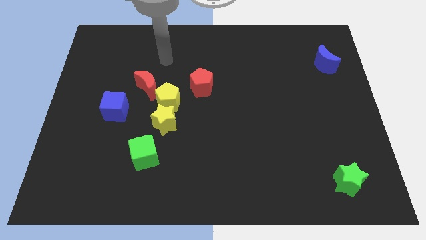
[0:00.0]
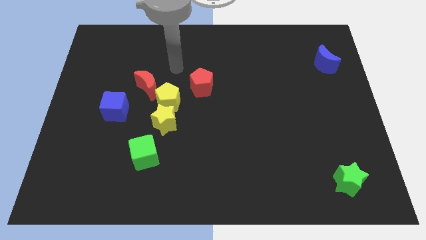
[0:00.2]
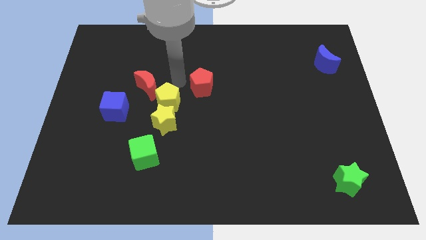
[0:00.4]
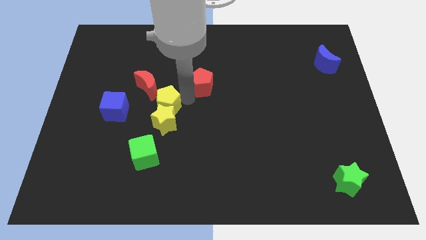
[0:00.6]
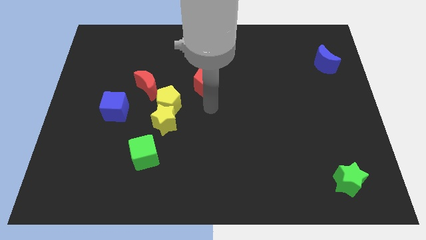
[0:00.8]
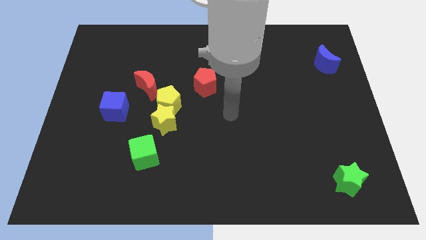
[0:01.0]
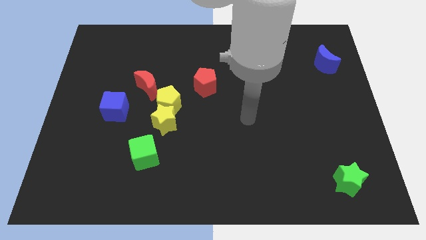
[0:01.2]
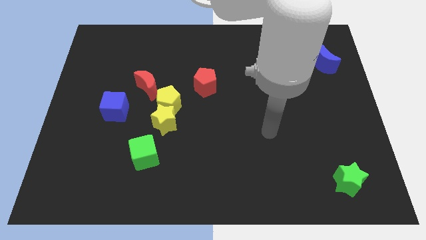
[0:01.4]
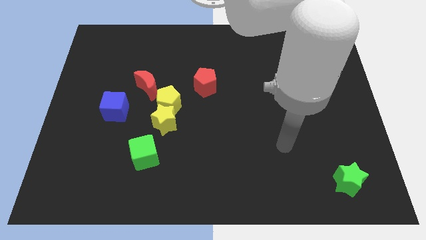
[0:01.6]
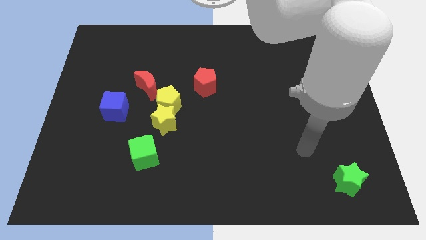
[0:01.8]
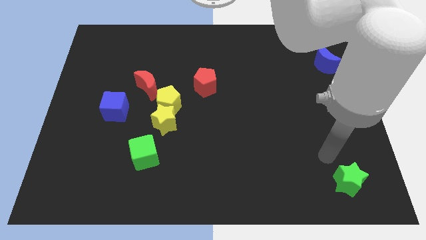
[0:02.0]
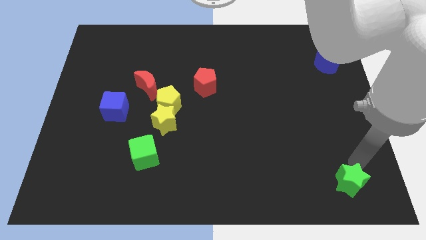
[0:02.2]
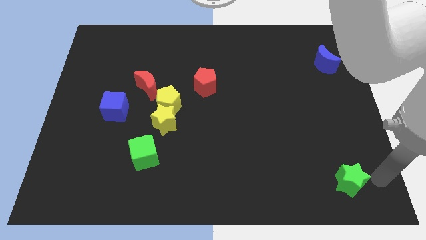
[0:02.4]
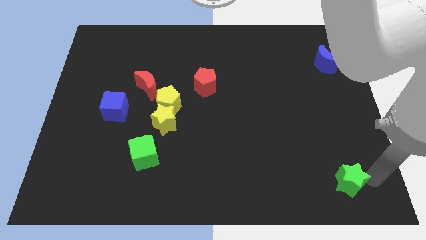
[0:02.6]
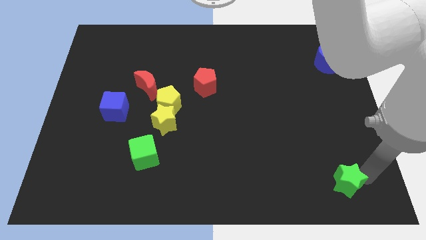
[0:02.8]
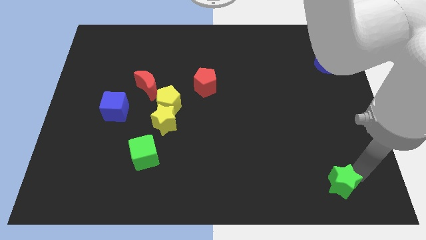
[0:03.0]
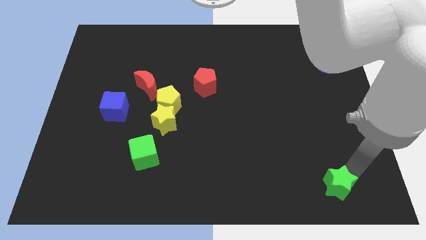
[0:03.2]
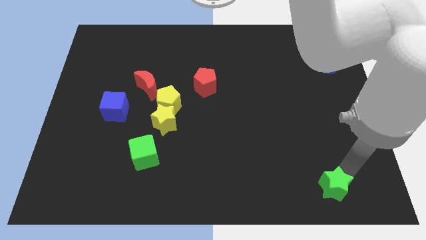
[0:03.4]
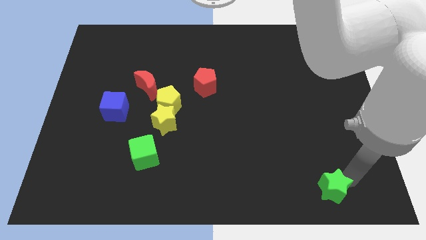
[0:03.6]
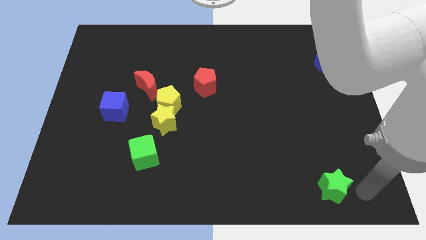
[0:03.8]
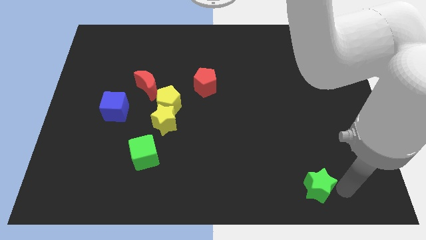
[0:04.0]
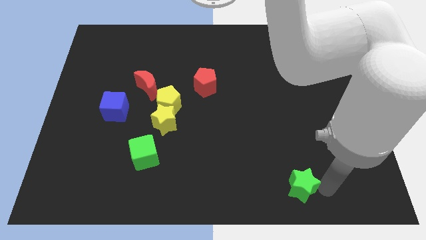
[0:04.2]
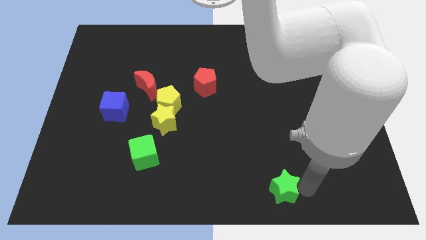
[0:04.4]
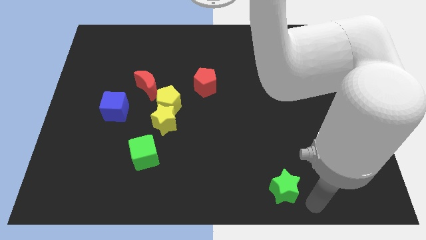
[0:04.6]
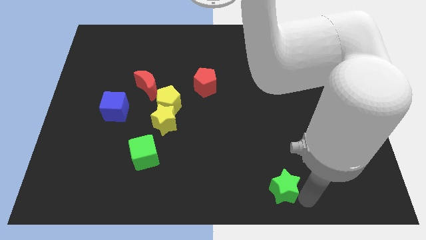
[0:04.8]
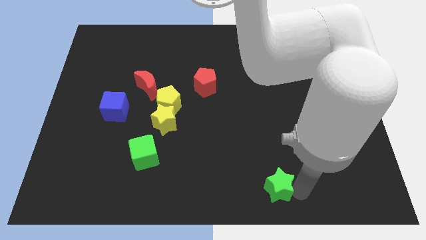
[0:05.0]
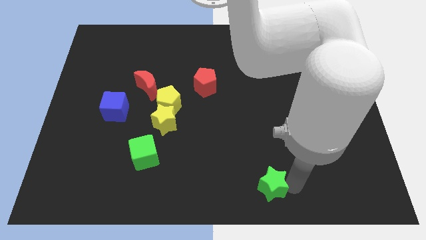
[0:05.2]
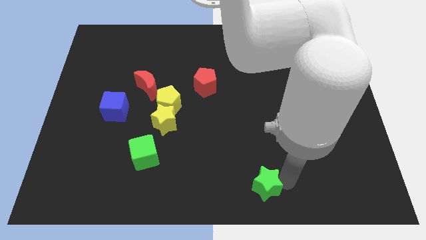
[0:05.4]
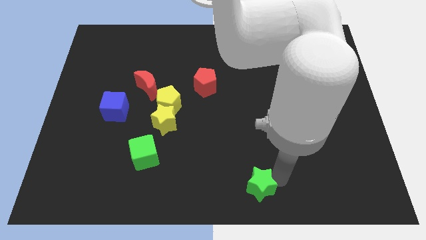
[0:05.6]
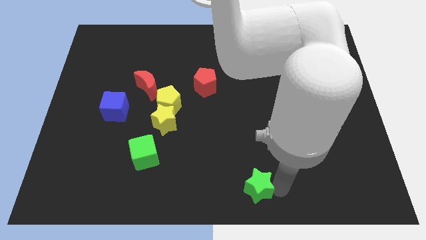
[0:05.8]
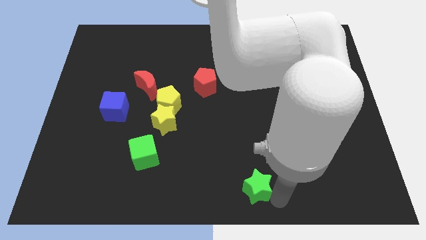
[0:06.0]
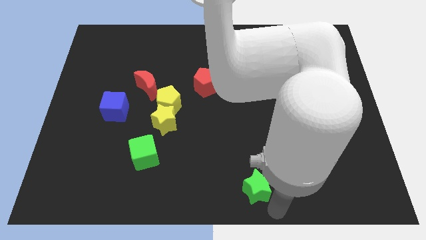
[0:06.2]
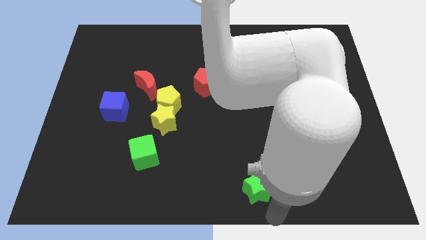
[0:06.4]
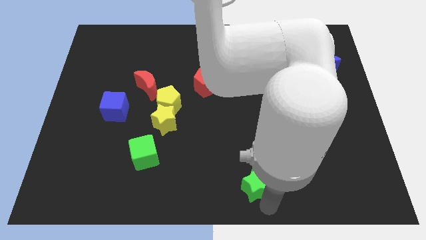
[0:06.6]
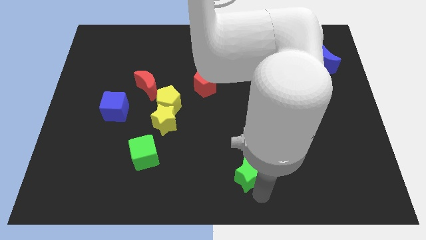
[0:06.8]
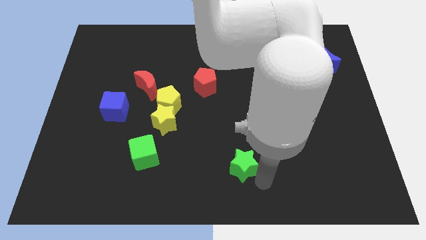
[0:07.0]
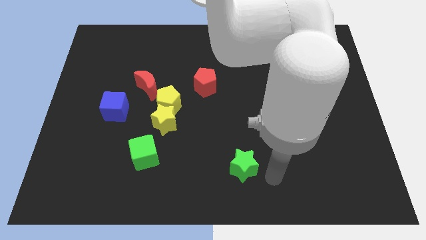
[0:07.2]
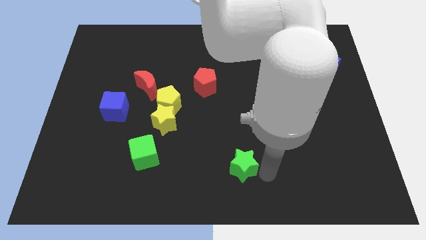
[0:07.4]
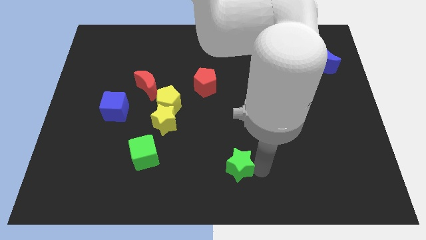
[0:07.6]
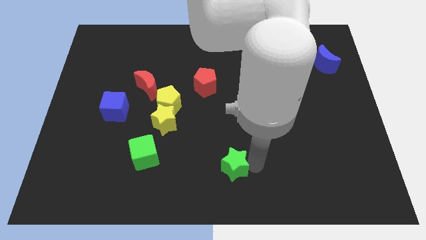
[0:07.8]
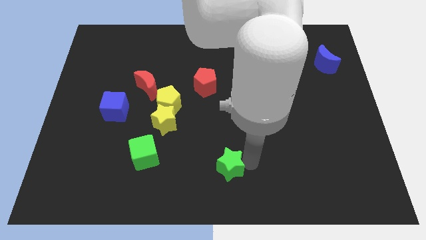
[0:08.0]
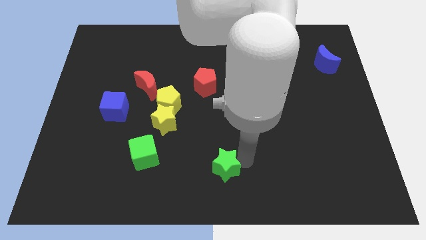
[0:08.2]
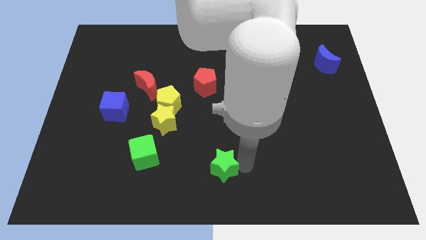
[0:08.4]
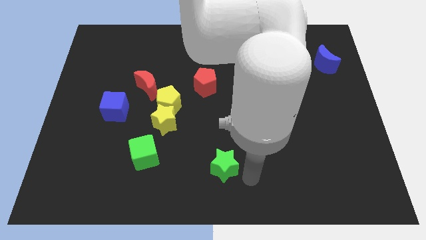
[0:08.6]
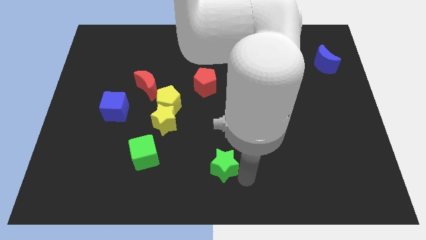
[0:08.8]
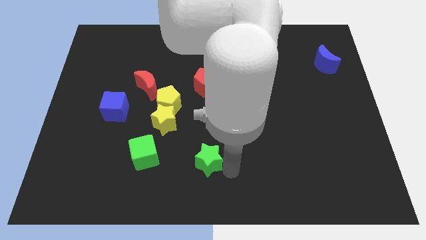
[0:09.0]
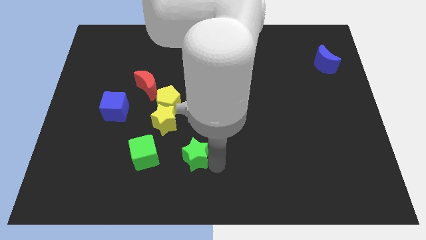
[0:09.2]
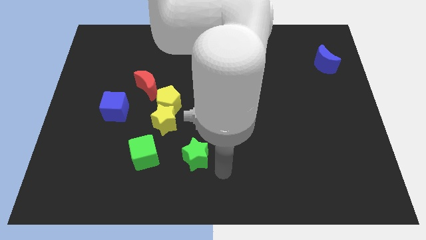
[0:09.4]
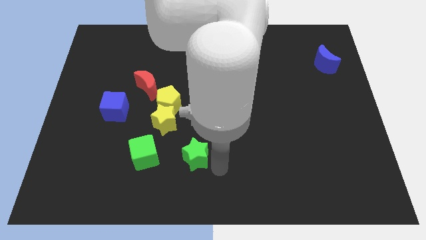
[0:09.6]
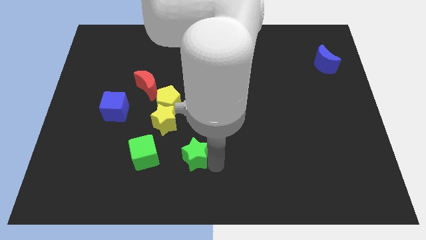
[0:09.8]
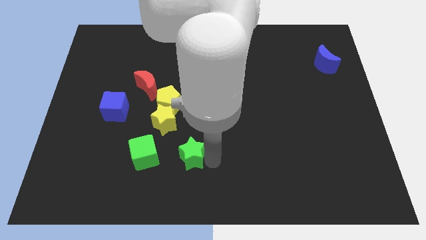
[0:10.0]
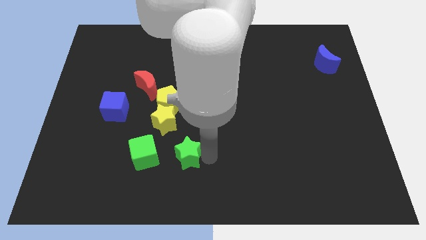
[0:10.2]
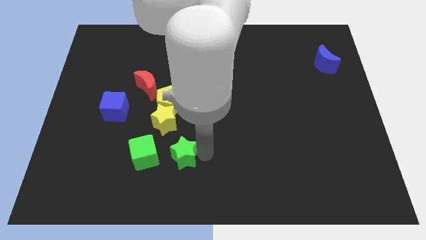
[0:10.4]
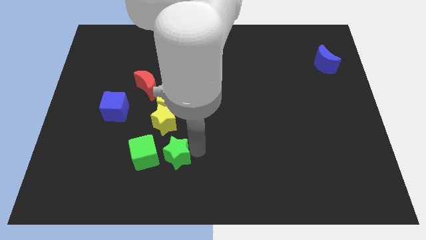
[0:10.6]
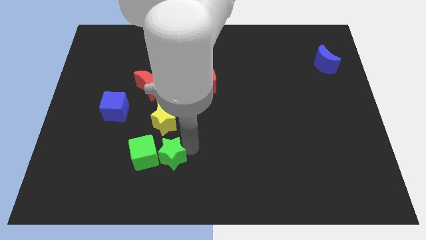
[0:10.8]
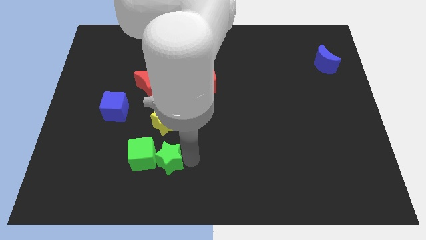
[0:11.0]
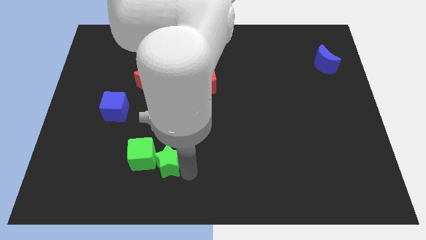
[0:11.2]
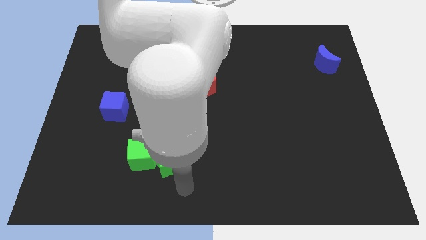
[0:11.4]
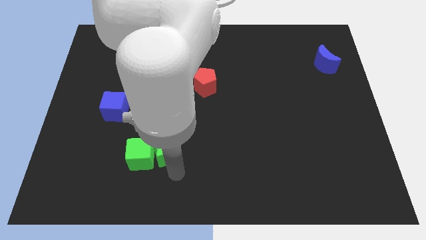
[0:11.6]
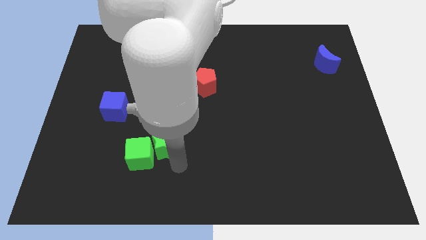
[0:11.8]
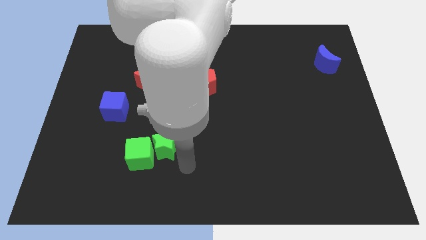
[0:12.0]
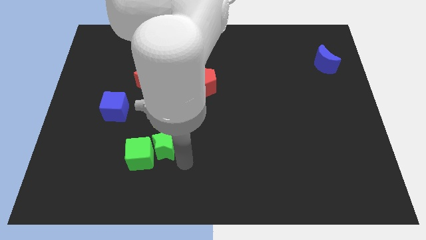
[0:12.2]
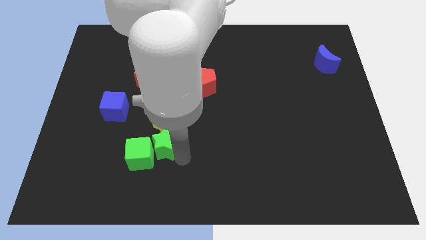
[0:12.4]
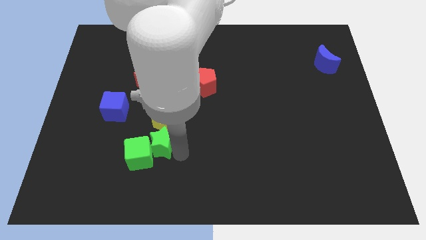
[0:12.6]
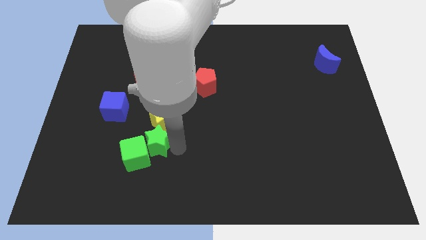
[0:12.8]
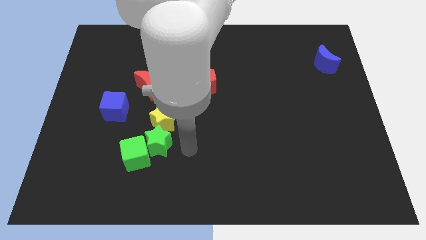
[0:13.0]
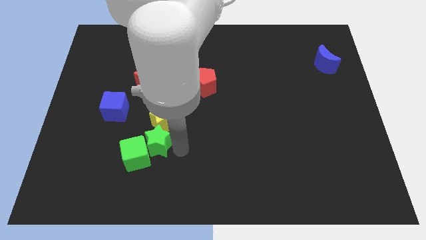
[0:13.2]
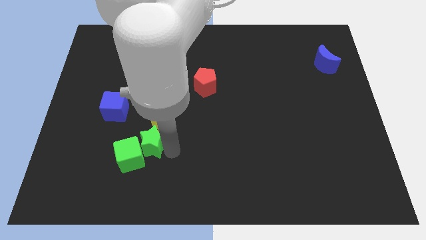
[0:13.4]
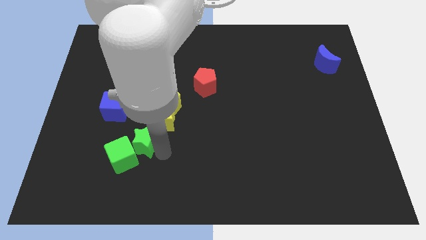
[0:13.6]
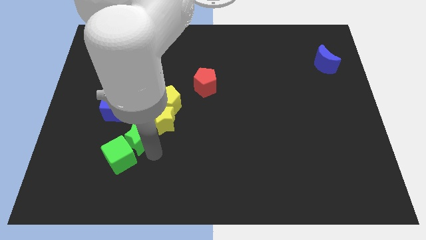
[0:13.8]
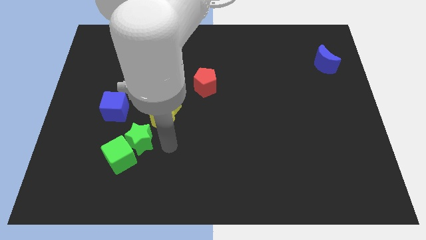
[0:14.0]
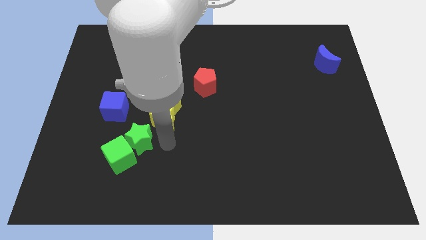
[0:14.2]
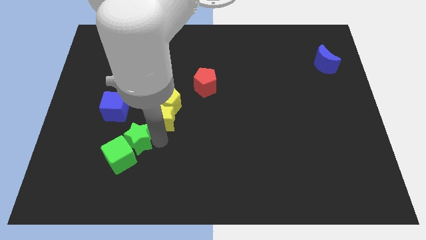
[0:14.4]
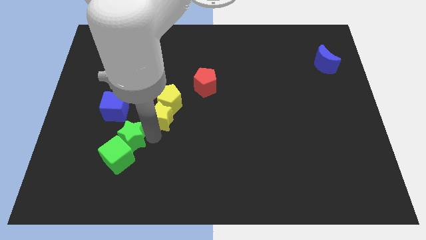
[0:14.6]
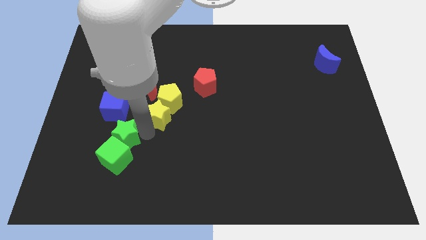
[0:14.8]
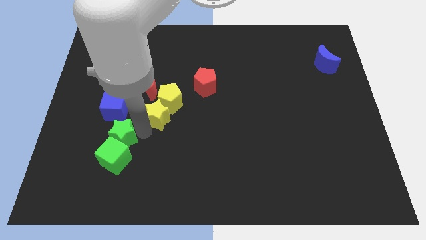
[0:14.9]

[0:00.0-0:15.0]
put the green star diagonally up and to the left of the green cube
